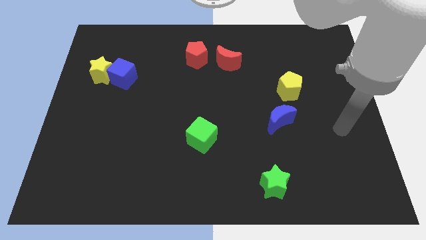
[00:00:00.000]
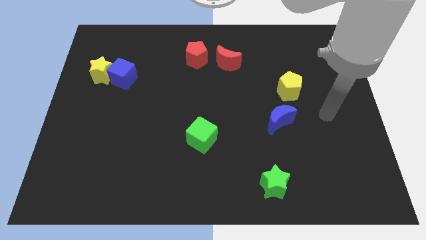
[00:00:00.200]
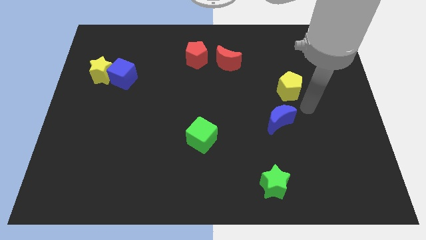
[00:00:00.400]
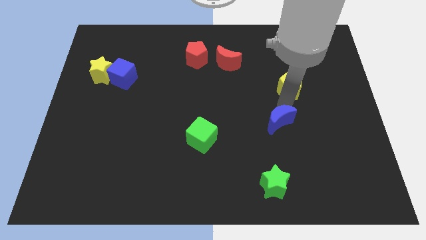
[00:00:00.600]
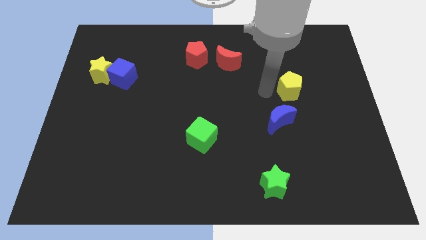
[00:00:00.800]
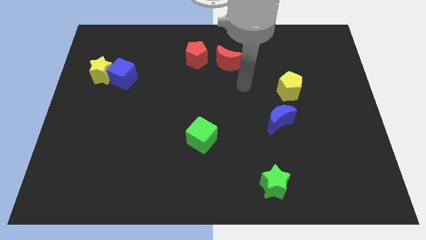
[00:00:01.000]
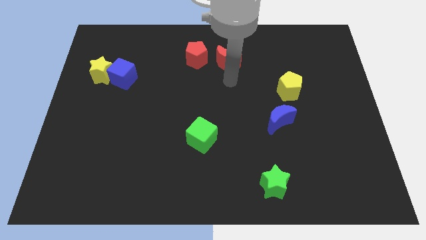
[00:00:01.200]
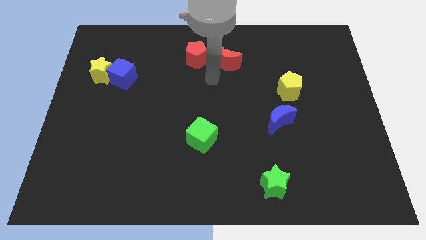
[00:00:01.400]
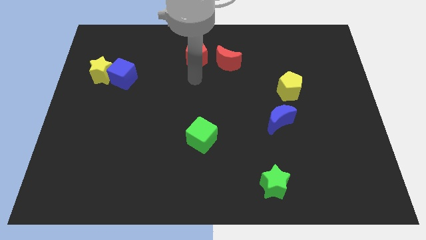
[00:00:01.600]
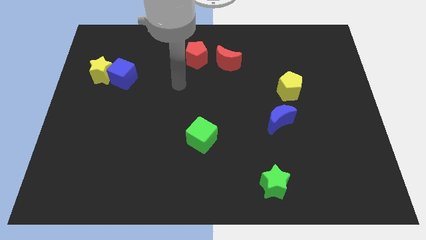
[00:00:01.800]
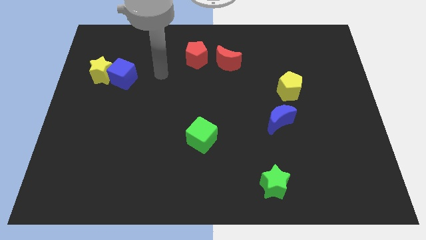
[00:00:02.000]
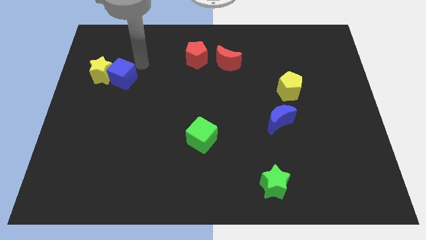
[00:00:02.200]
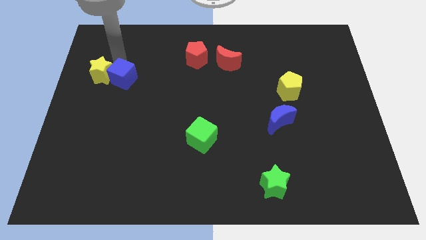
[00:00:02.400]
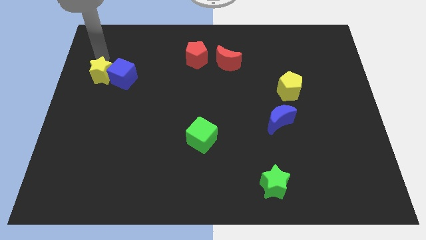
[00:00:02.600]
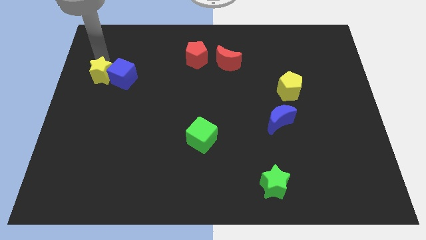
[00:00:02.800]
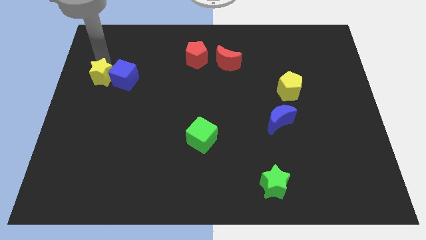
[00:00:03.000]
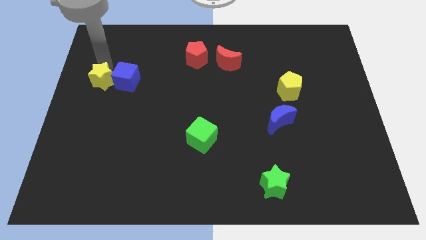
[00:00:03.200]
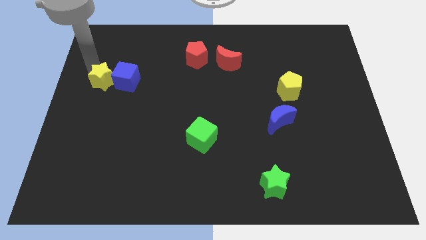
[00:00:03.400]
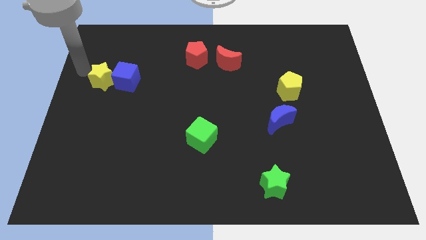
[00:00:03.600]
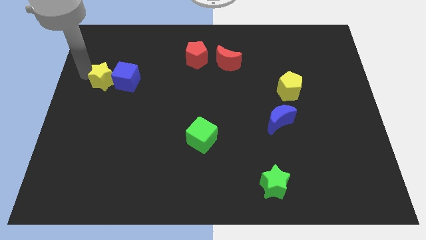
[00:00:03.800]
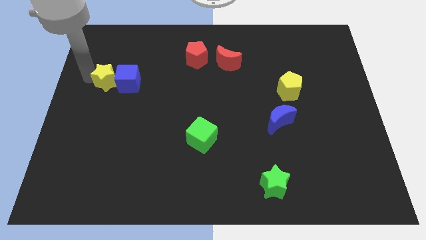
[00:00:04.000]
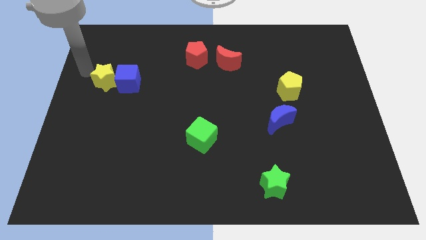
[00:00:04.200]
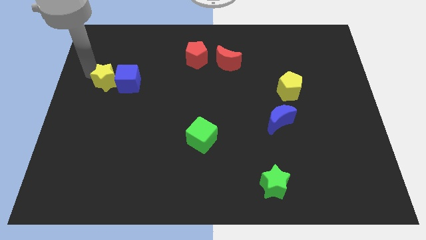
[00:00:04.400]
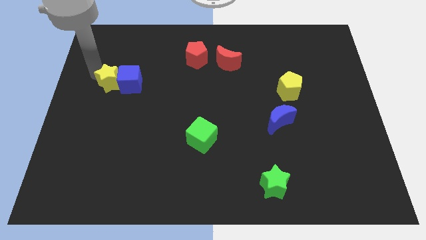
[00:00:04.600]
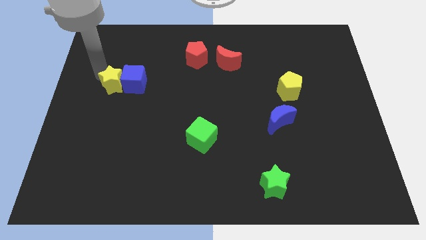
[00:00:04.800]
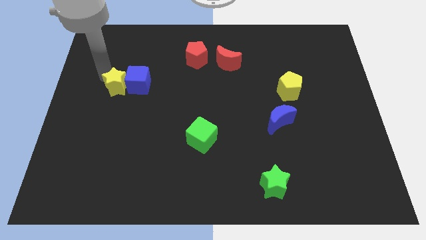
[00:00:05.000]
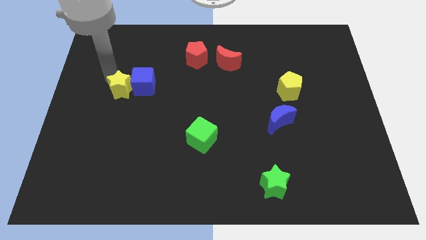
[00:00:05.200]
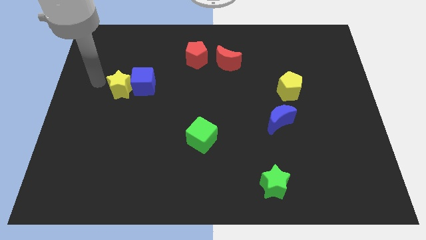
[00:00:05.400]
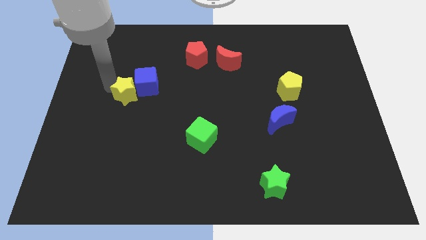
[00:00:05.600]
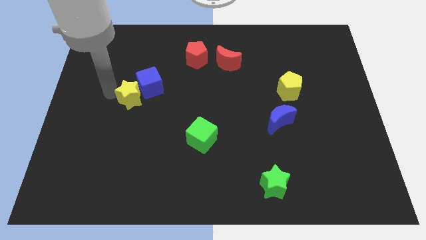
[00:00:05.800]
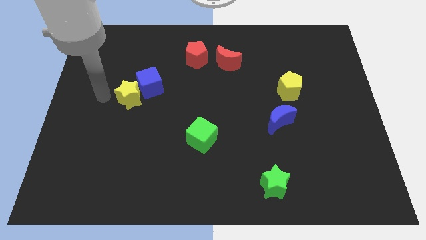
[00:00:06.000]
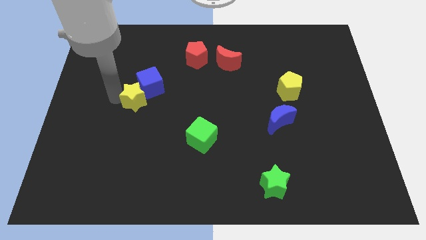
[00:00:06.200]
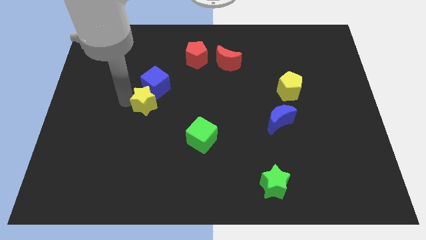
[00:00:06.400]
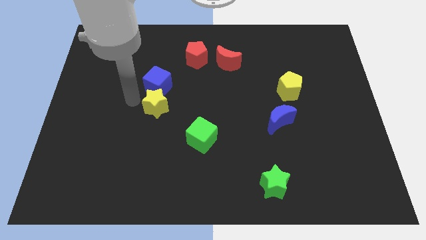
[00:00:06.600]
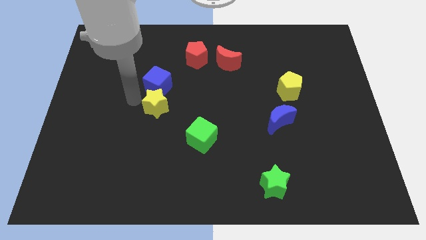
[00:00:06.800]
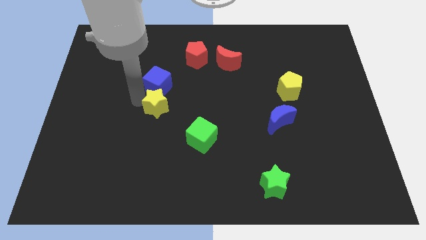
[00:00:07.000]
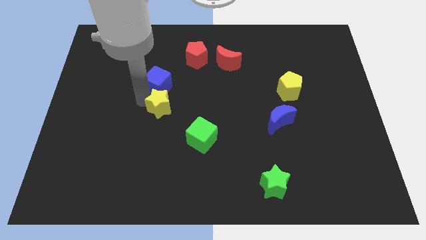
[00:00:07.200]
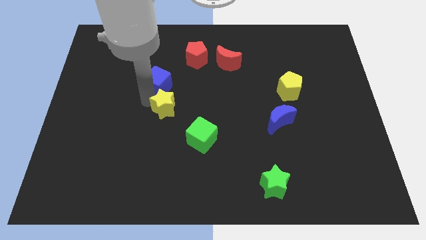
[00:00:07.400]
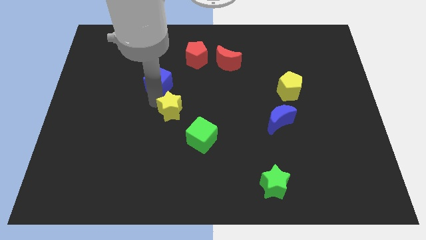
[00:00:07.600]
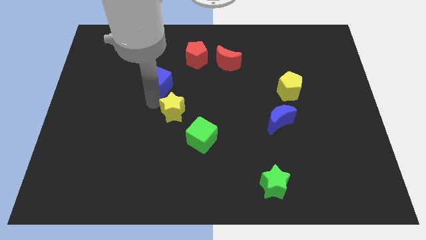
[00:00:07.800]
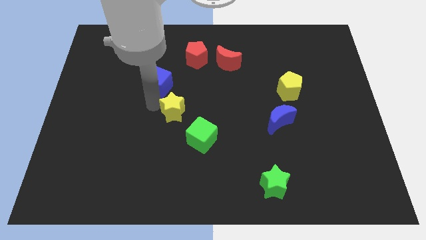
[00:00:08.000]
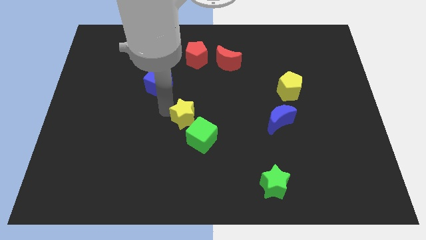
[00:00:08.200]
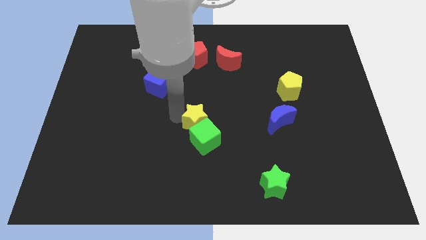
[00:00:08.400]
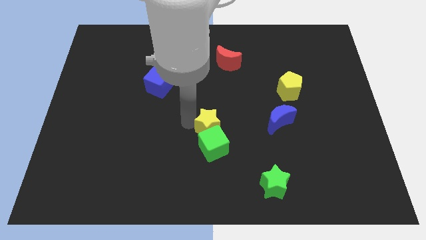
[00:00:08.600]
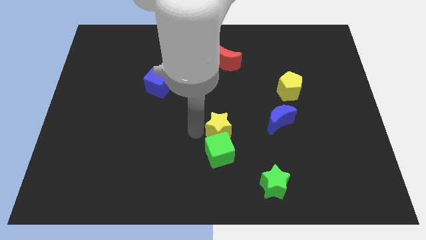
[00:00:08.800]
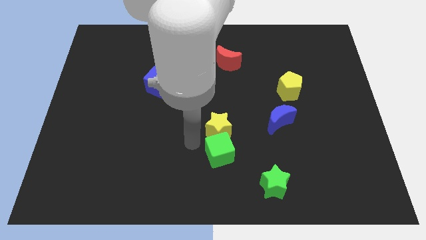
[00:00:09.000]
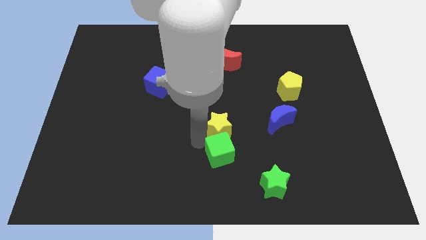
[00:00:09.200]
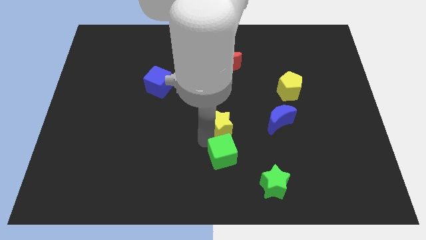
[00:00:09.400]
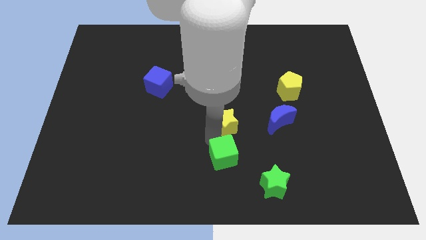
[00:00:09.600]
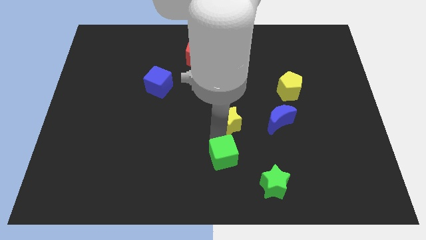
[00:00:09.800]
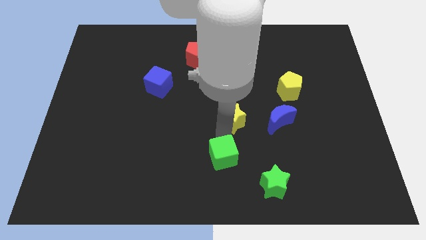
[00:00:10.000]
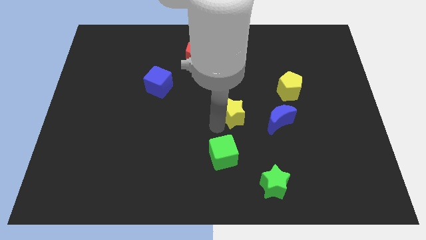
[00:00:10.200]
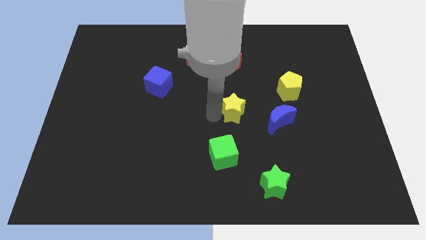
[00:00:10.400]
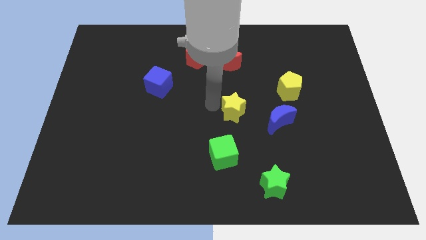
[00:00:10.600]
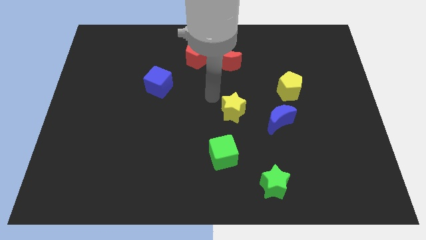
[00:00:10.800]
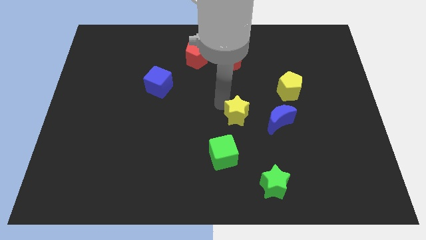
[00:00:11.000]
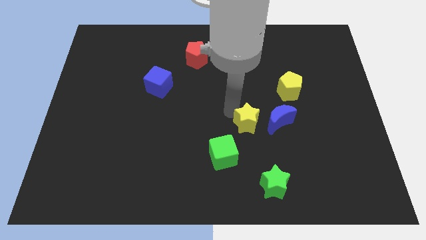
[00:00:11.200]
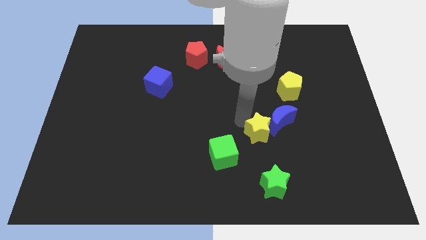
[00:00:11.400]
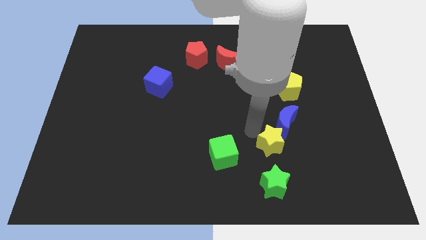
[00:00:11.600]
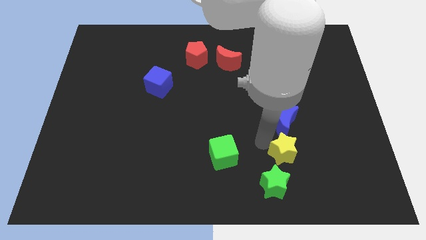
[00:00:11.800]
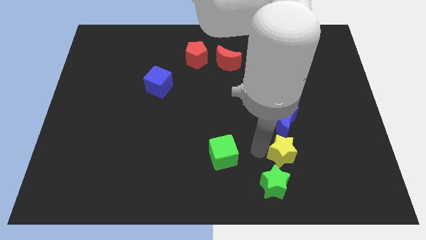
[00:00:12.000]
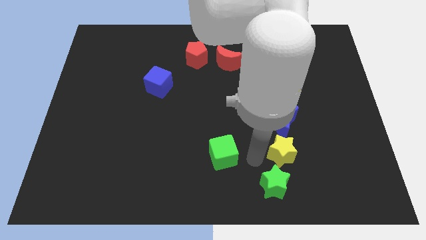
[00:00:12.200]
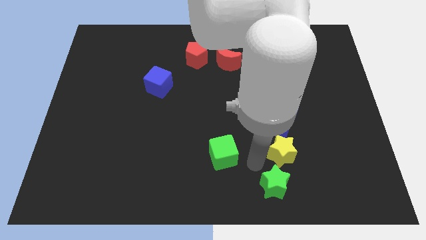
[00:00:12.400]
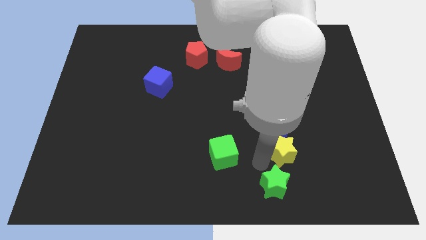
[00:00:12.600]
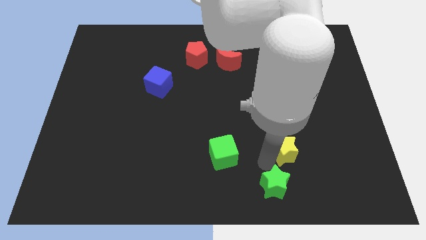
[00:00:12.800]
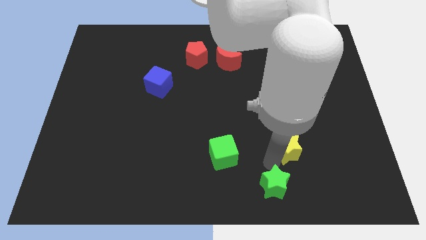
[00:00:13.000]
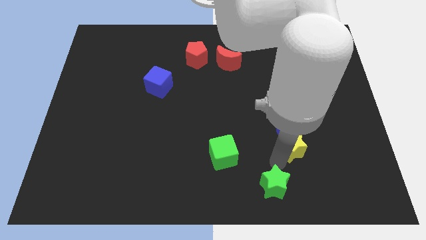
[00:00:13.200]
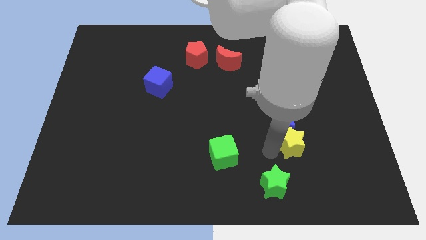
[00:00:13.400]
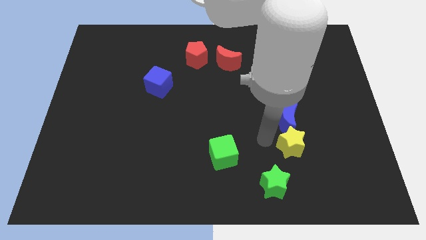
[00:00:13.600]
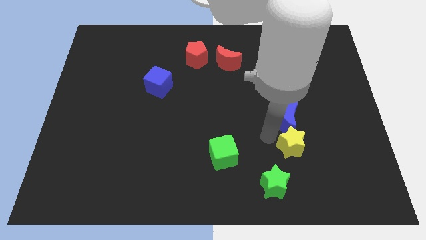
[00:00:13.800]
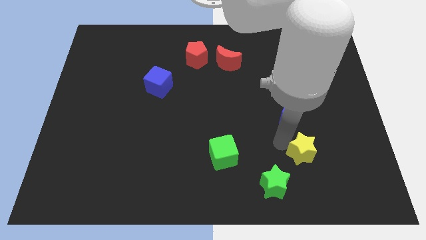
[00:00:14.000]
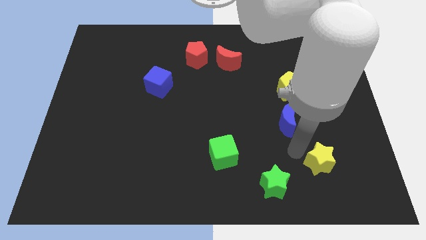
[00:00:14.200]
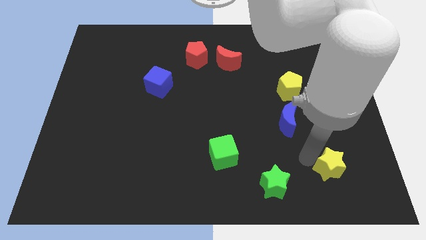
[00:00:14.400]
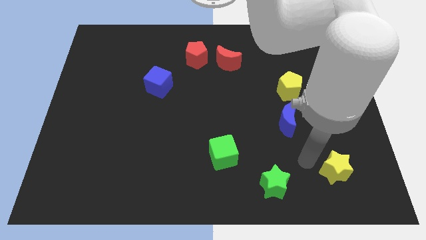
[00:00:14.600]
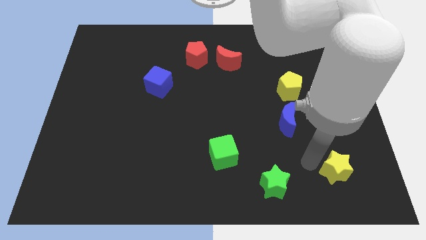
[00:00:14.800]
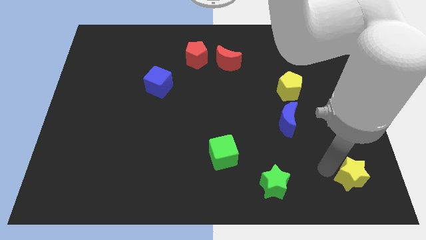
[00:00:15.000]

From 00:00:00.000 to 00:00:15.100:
put the yellow star to the bottom right of the board
